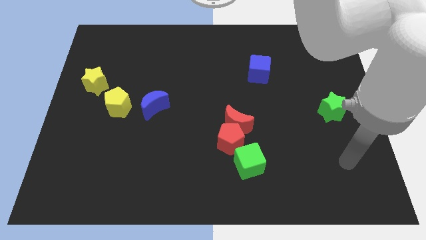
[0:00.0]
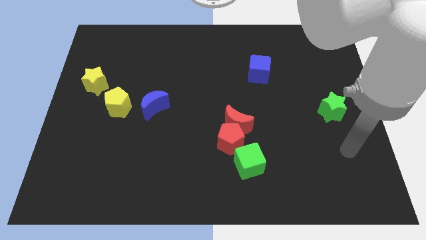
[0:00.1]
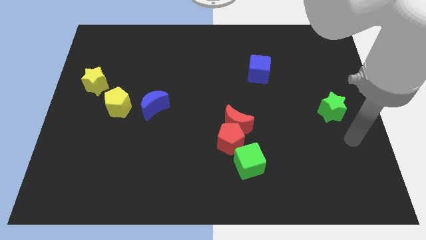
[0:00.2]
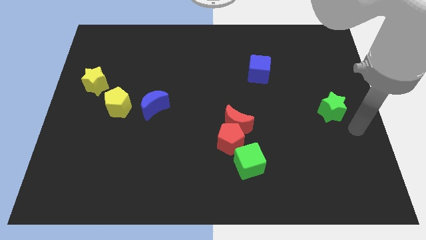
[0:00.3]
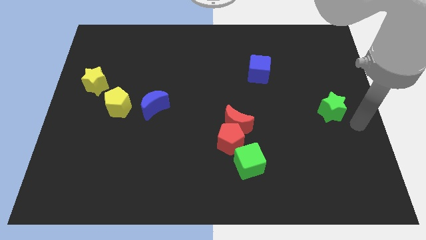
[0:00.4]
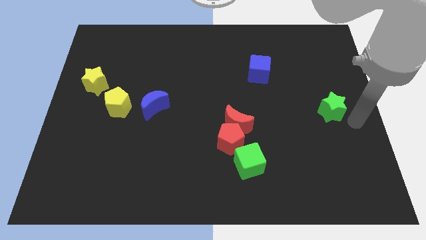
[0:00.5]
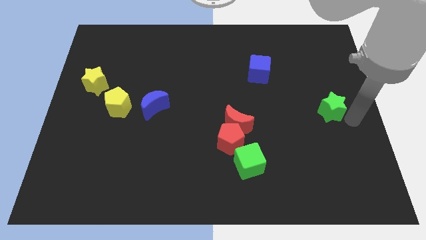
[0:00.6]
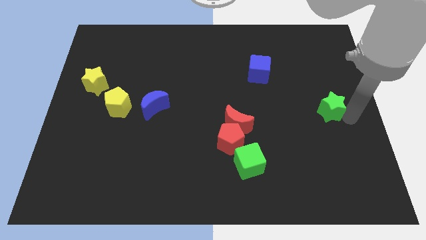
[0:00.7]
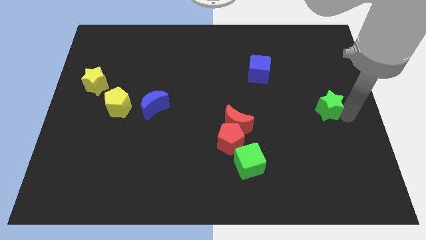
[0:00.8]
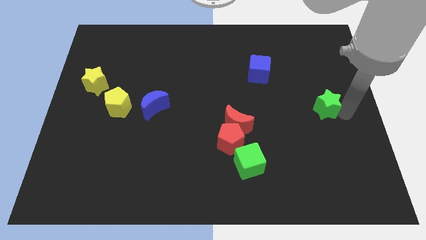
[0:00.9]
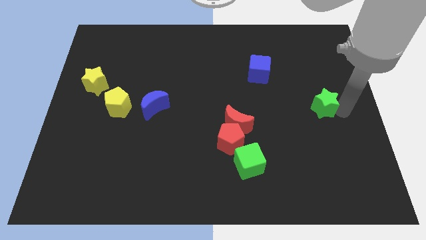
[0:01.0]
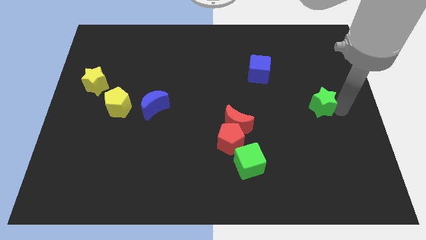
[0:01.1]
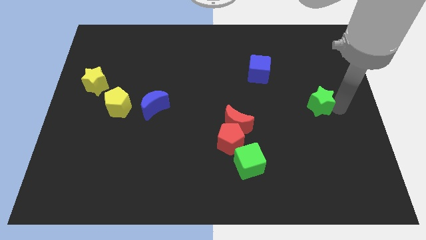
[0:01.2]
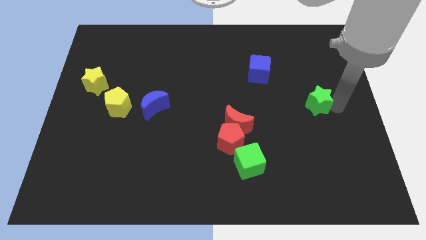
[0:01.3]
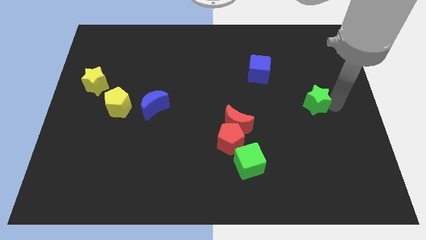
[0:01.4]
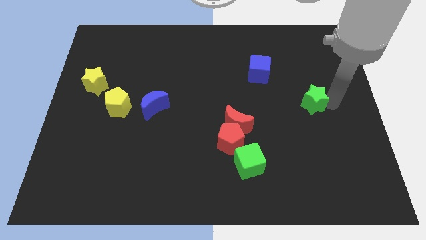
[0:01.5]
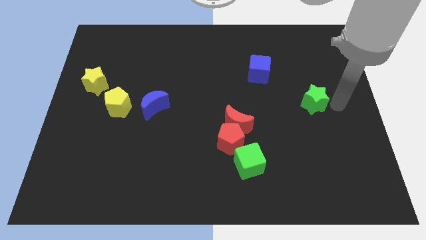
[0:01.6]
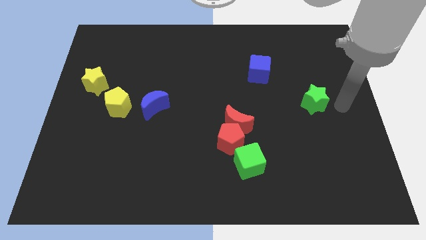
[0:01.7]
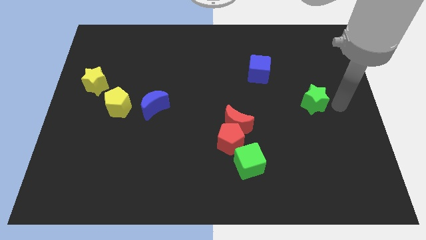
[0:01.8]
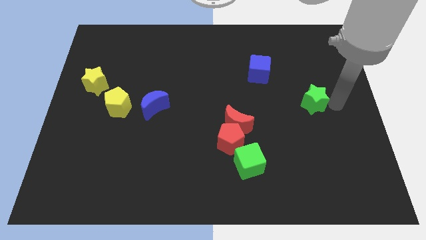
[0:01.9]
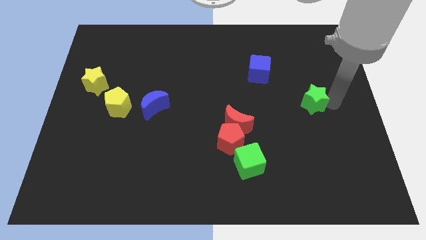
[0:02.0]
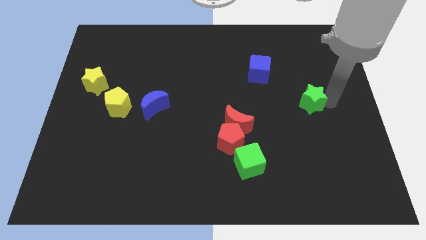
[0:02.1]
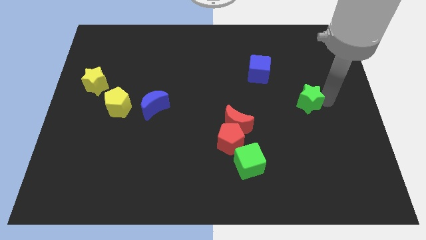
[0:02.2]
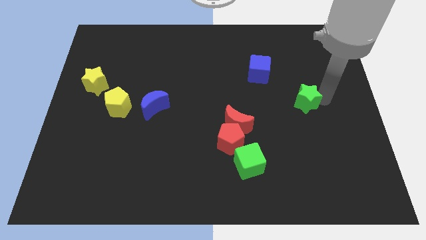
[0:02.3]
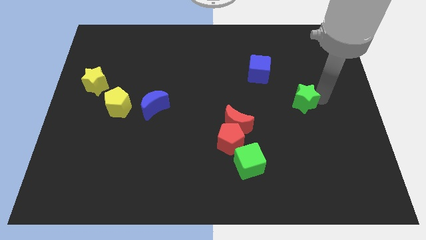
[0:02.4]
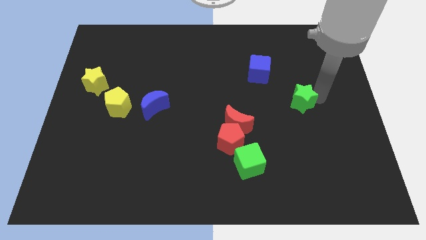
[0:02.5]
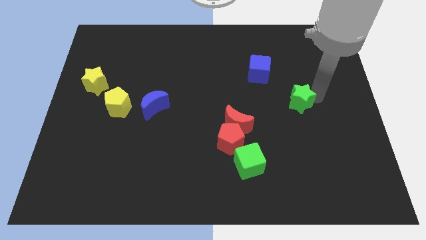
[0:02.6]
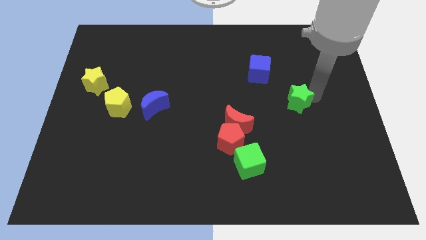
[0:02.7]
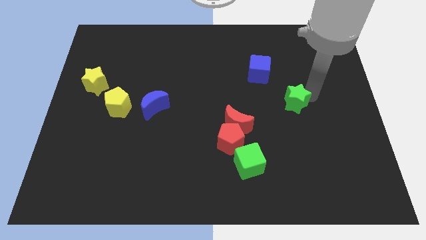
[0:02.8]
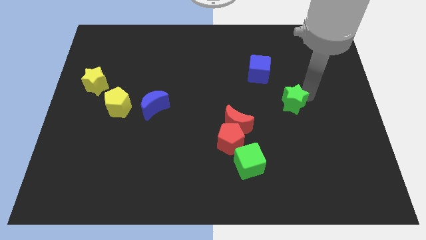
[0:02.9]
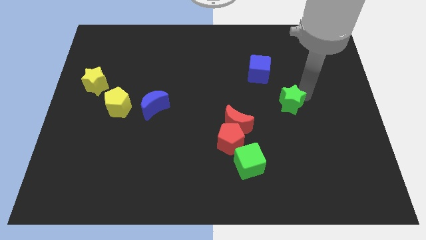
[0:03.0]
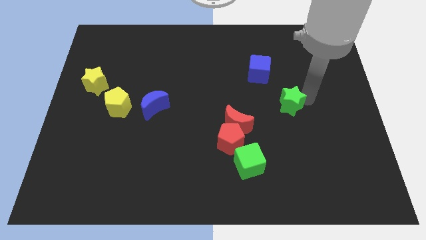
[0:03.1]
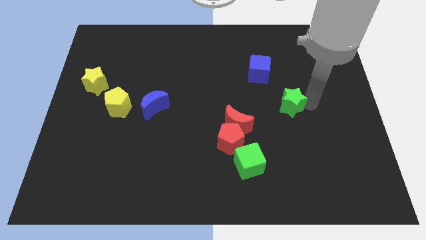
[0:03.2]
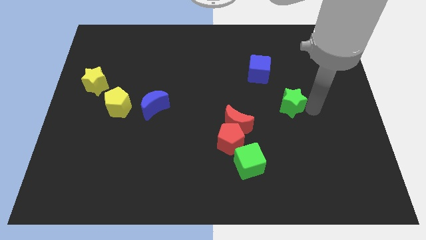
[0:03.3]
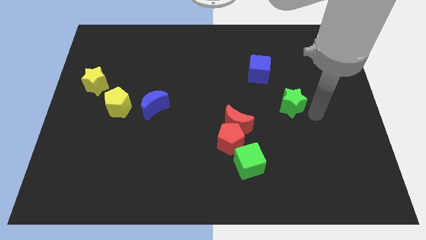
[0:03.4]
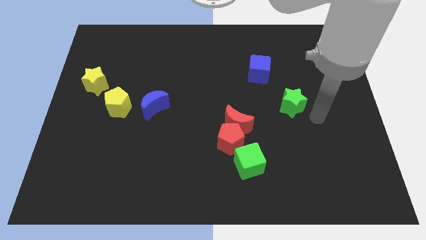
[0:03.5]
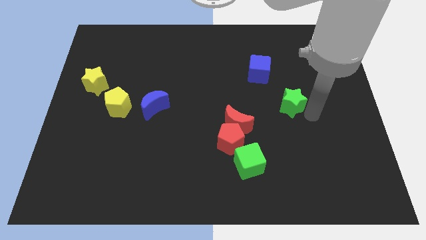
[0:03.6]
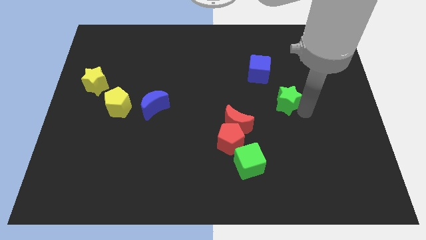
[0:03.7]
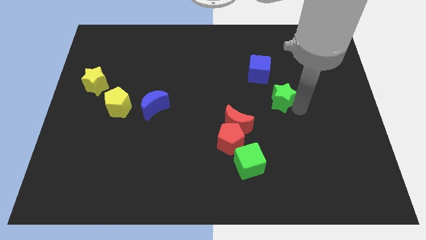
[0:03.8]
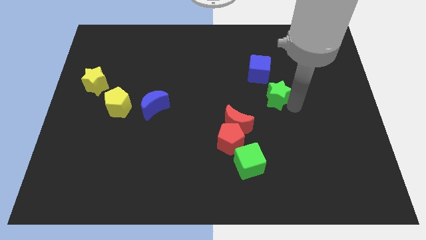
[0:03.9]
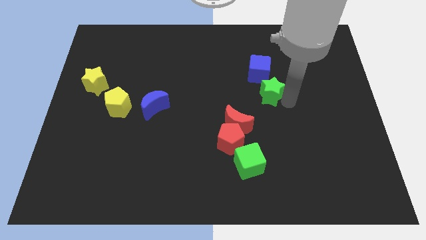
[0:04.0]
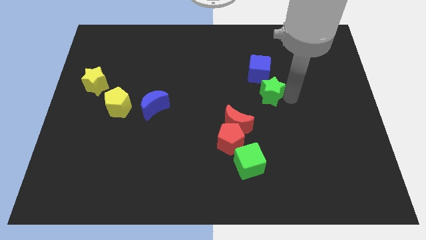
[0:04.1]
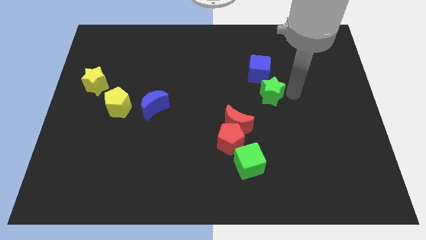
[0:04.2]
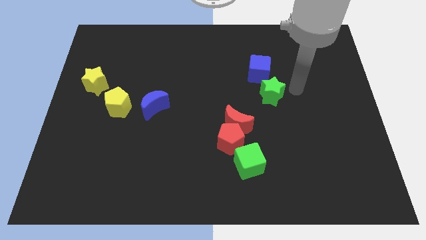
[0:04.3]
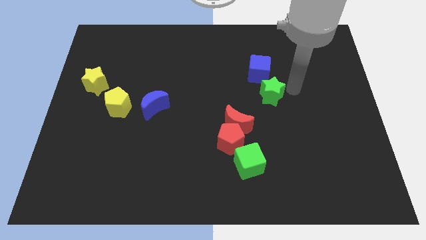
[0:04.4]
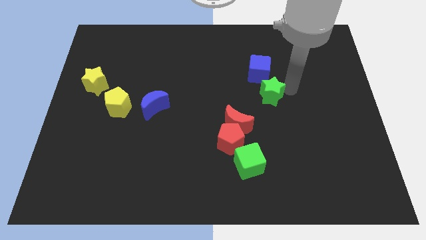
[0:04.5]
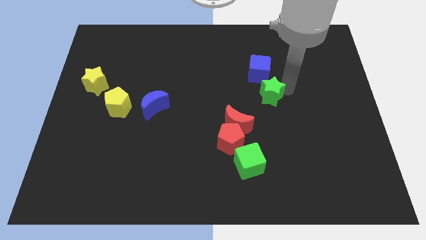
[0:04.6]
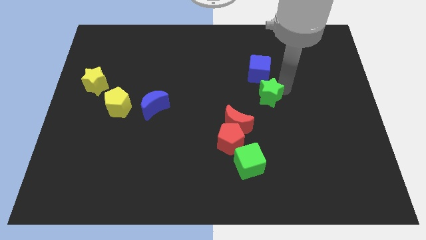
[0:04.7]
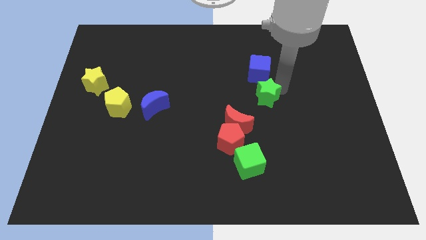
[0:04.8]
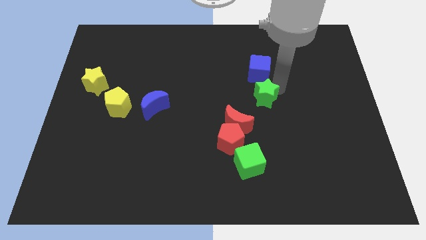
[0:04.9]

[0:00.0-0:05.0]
push the green star to the center of the board

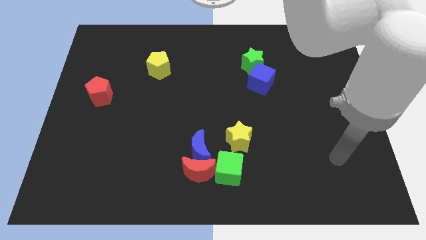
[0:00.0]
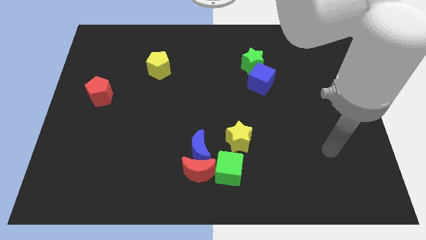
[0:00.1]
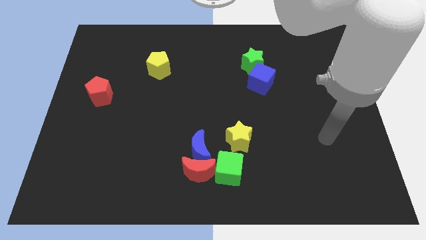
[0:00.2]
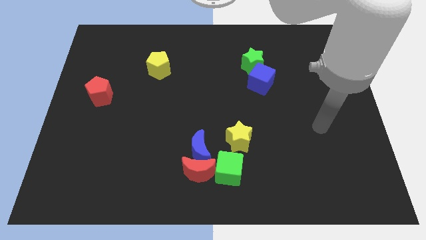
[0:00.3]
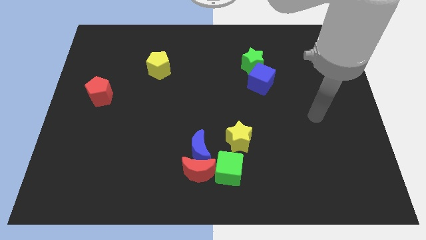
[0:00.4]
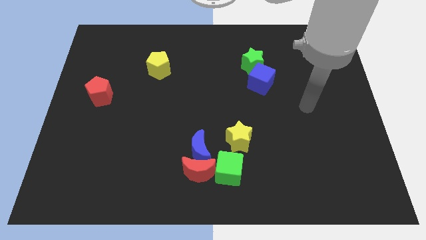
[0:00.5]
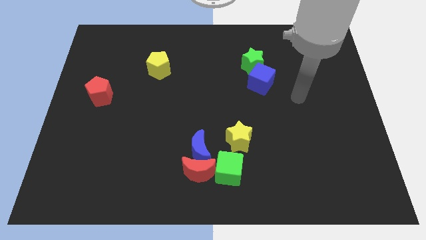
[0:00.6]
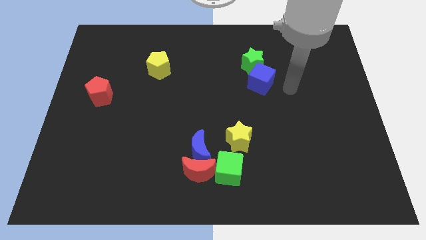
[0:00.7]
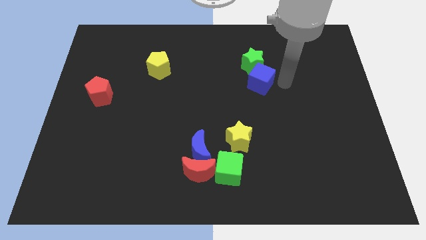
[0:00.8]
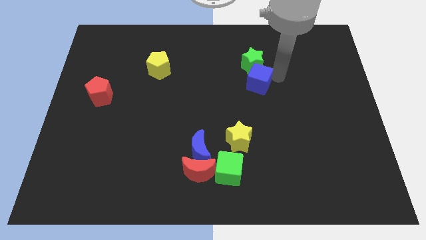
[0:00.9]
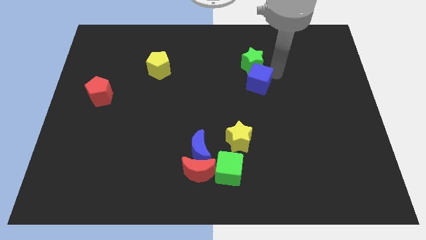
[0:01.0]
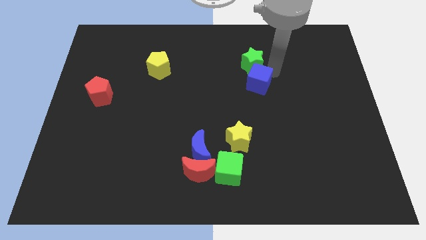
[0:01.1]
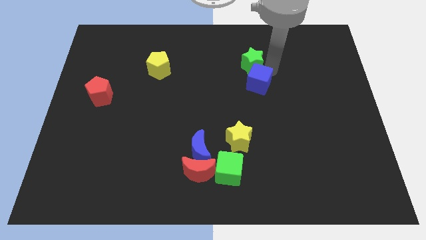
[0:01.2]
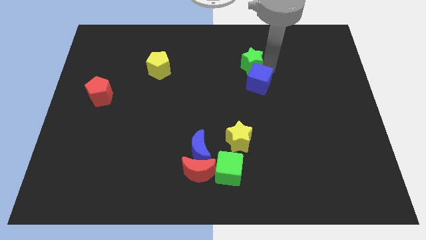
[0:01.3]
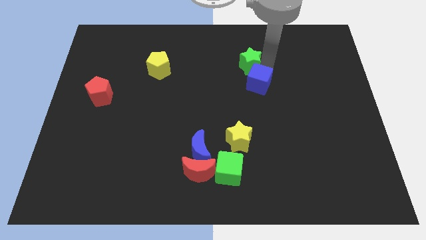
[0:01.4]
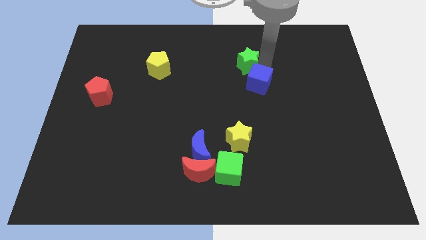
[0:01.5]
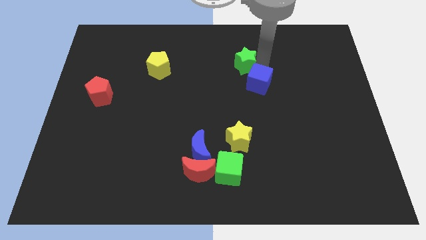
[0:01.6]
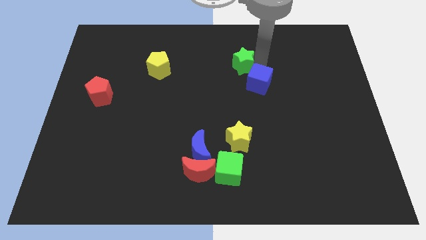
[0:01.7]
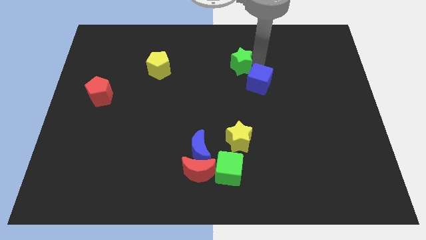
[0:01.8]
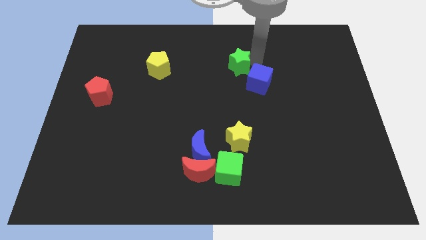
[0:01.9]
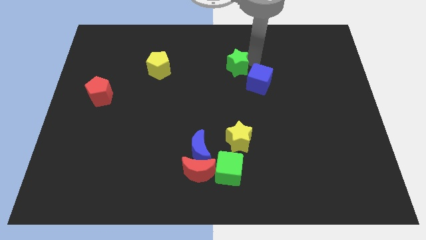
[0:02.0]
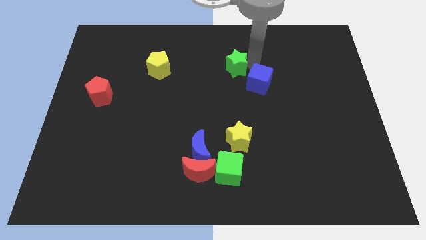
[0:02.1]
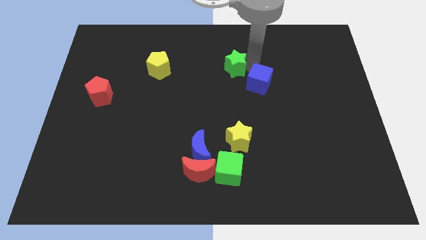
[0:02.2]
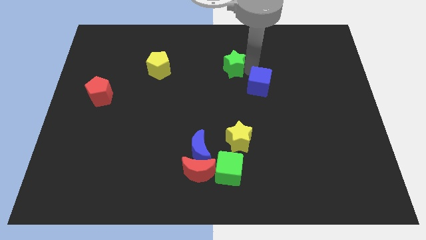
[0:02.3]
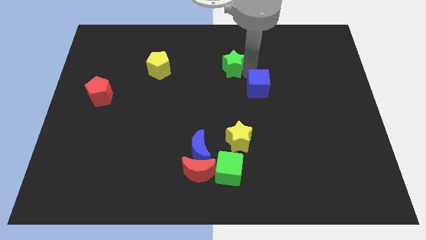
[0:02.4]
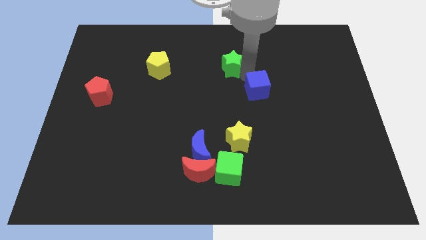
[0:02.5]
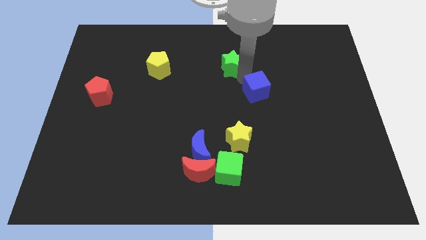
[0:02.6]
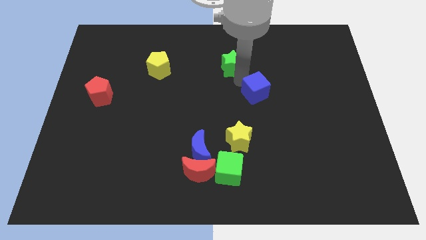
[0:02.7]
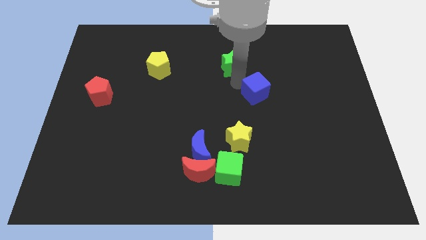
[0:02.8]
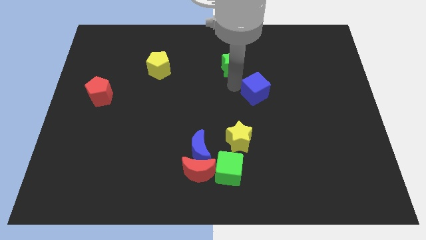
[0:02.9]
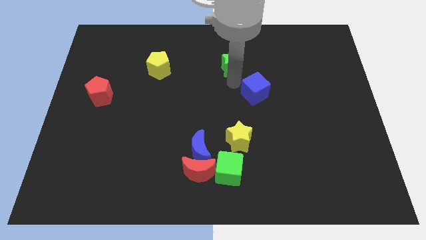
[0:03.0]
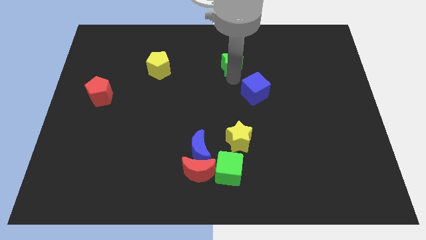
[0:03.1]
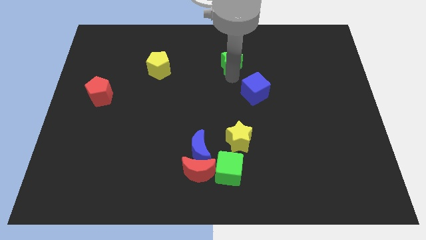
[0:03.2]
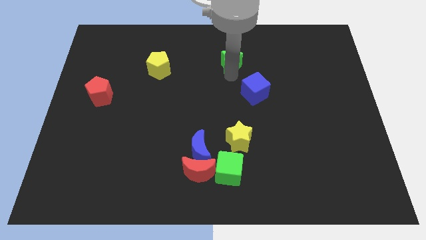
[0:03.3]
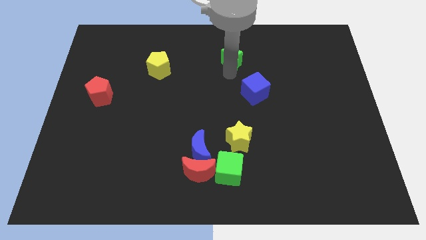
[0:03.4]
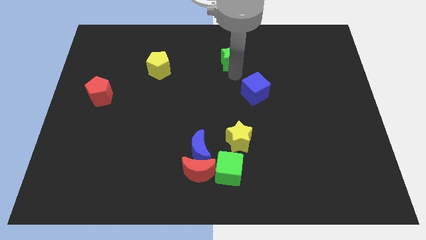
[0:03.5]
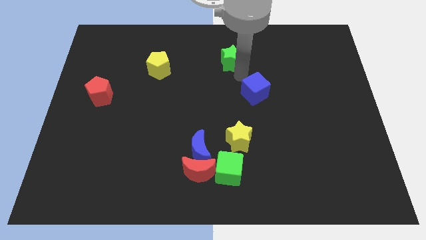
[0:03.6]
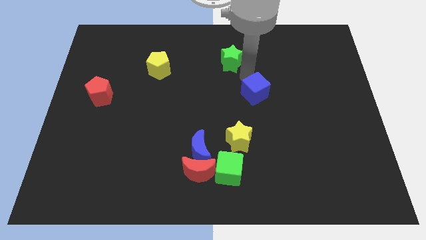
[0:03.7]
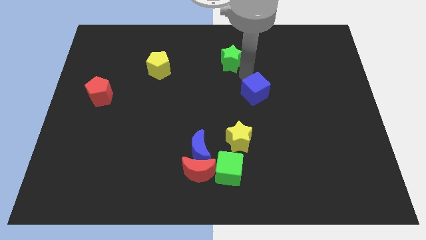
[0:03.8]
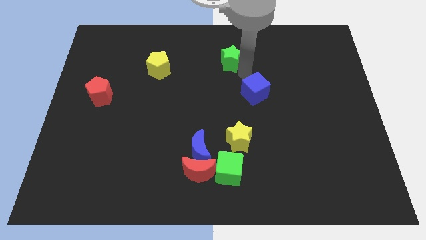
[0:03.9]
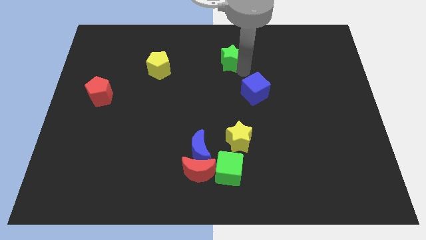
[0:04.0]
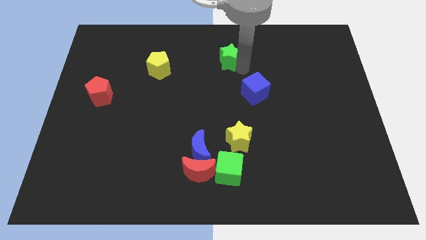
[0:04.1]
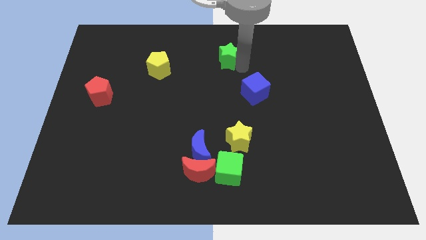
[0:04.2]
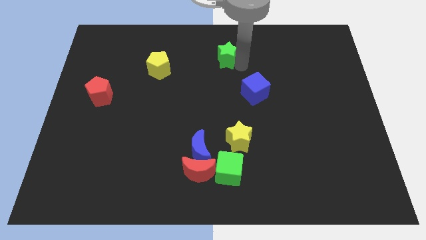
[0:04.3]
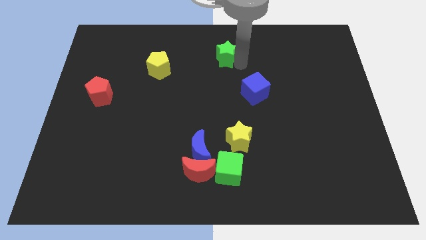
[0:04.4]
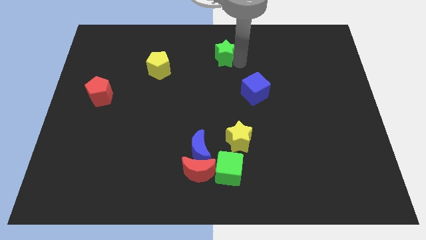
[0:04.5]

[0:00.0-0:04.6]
push the green star to the top side
